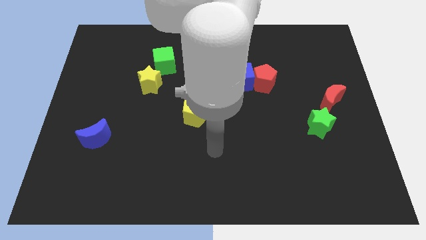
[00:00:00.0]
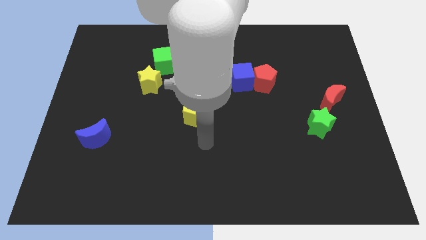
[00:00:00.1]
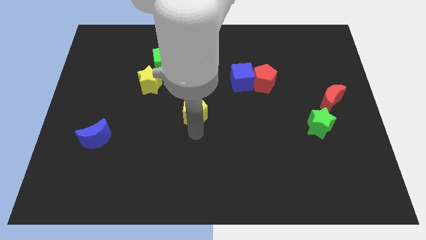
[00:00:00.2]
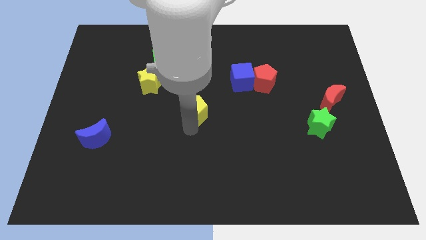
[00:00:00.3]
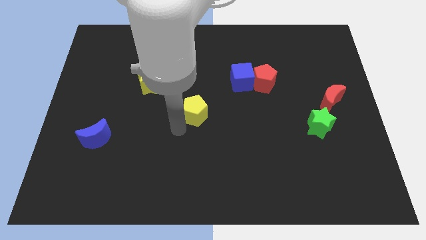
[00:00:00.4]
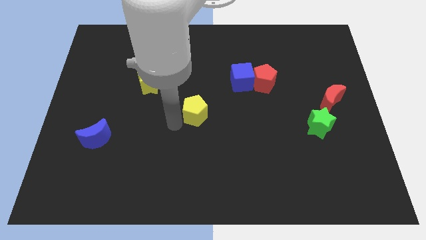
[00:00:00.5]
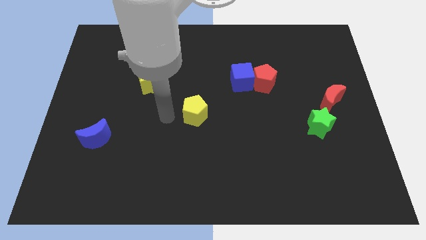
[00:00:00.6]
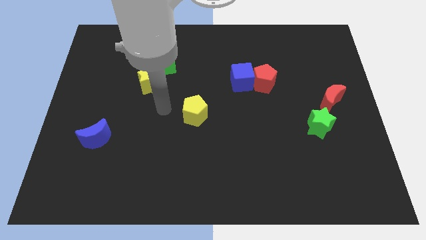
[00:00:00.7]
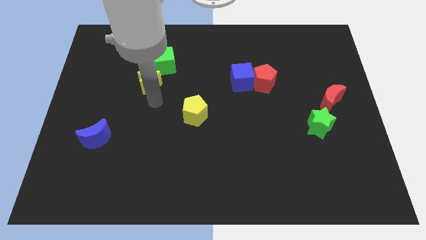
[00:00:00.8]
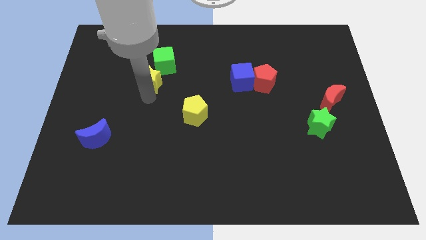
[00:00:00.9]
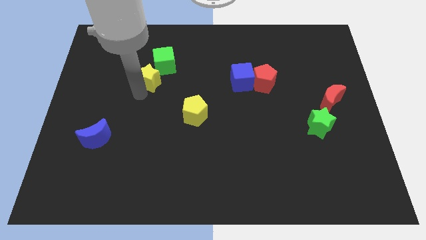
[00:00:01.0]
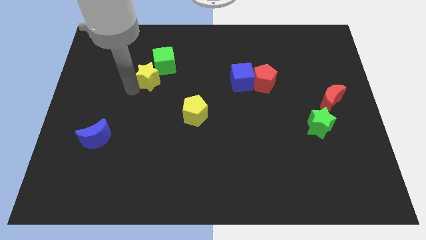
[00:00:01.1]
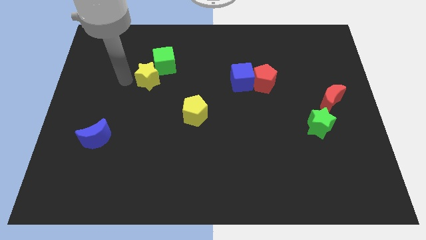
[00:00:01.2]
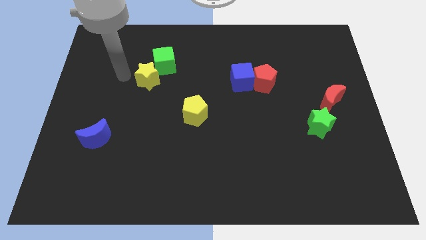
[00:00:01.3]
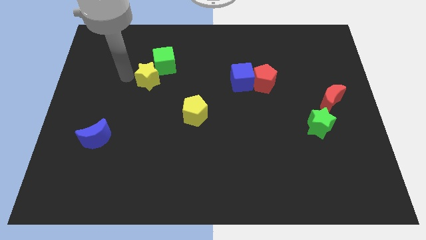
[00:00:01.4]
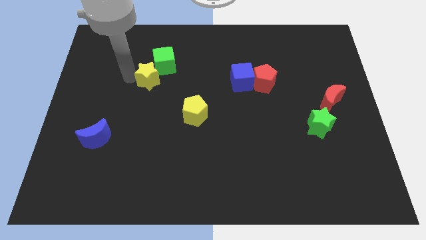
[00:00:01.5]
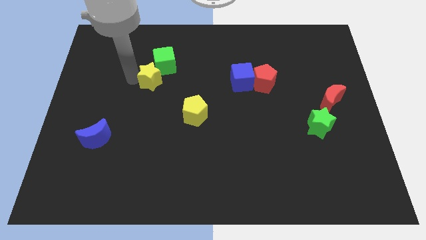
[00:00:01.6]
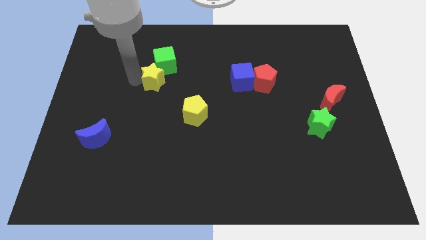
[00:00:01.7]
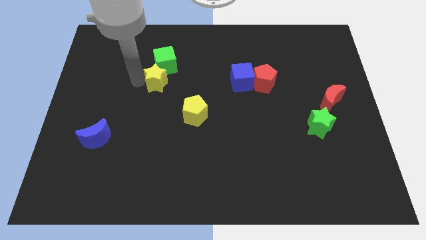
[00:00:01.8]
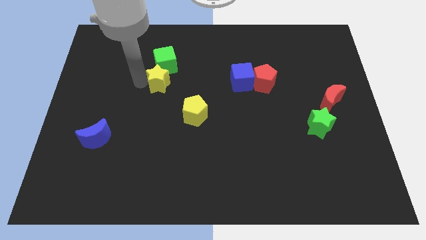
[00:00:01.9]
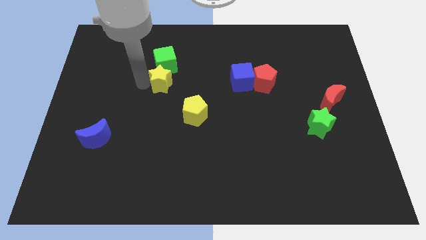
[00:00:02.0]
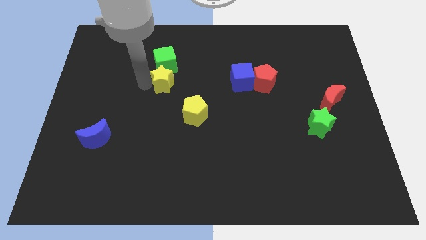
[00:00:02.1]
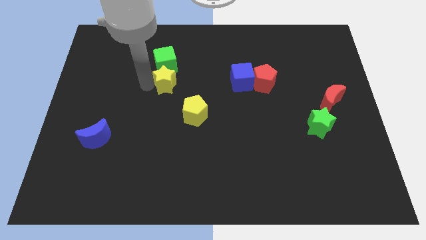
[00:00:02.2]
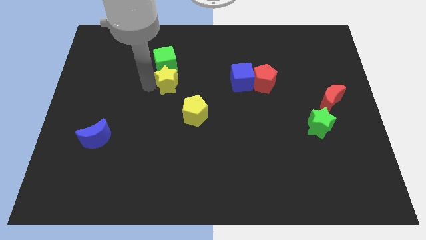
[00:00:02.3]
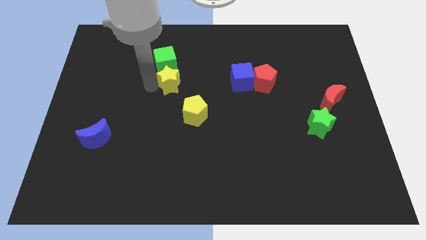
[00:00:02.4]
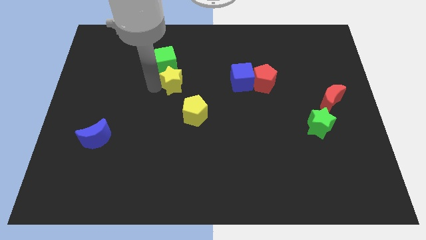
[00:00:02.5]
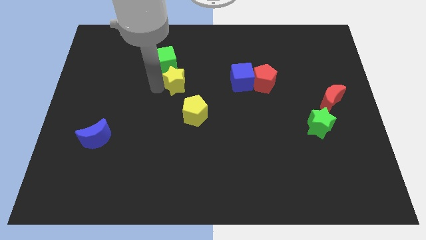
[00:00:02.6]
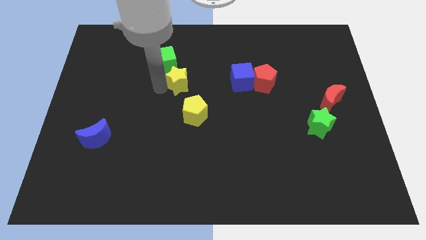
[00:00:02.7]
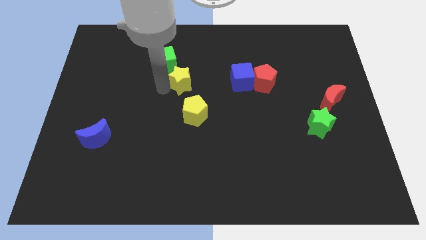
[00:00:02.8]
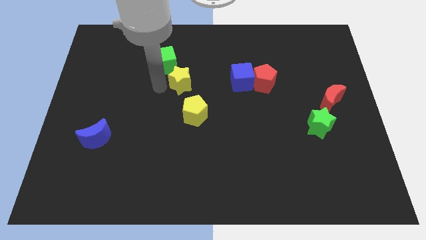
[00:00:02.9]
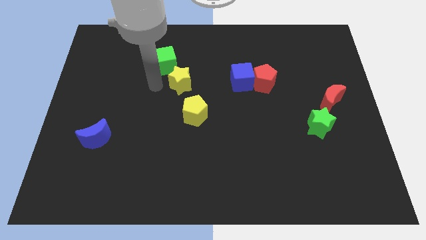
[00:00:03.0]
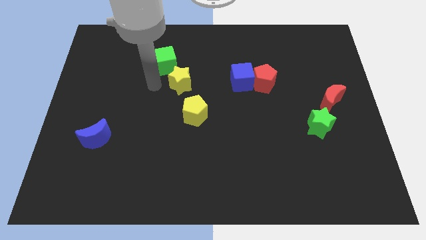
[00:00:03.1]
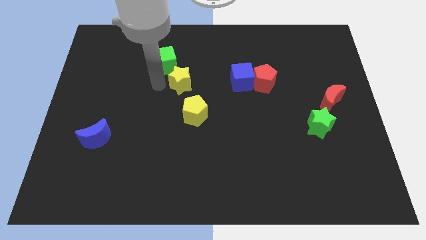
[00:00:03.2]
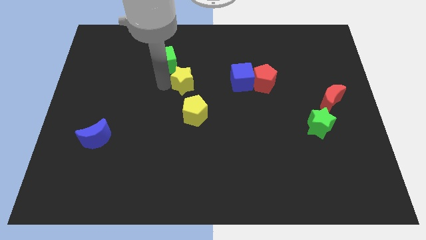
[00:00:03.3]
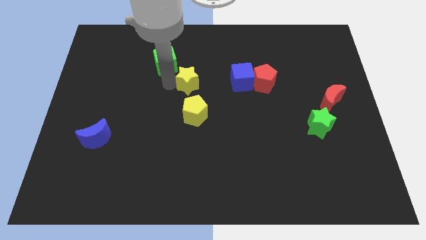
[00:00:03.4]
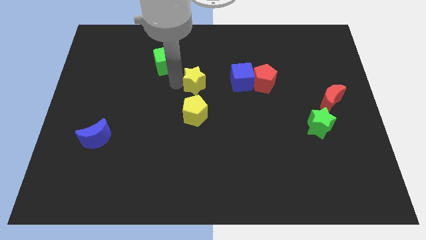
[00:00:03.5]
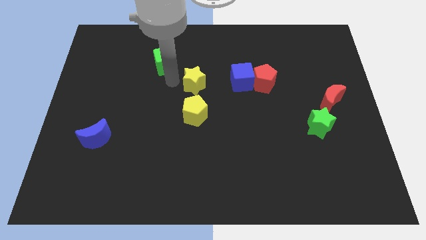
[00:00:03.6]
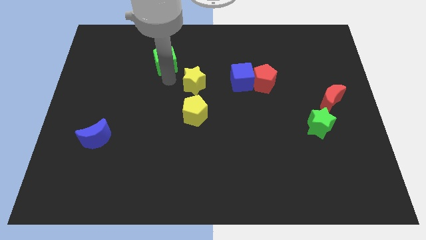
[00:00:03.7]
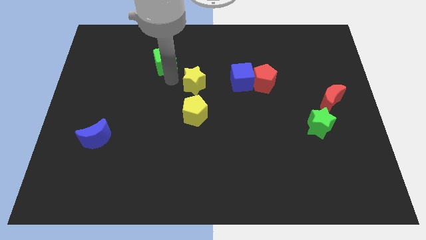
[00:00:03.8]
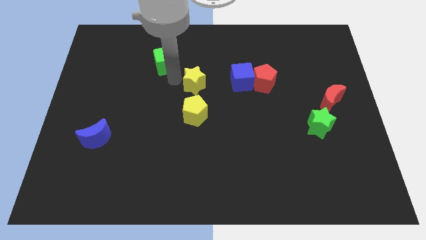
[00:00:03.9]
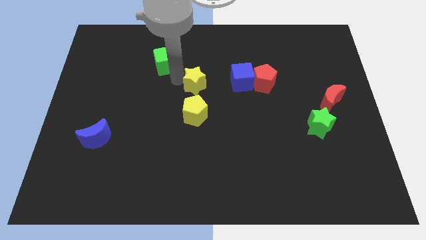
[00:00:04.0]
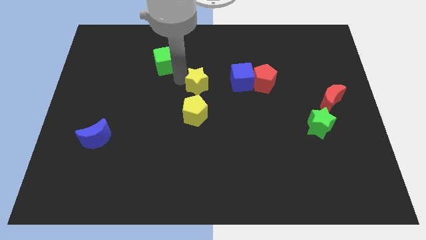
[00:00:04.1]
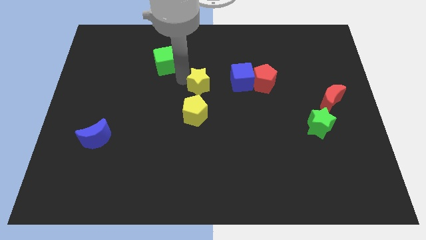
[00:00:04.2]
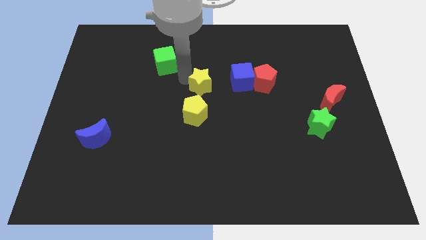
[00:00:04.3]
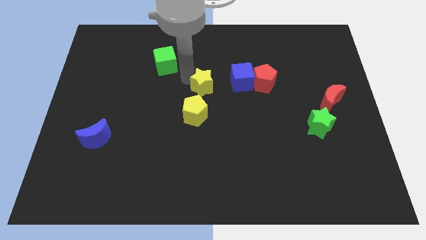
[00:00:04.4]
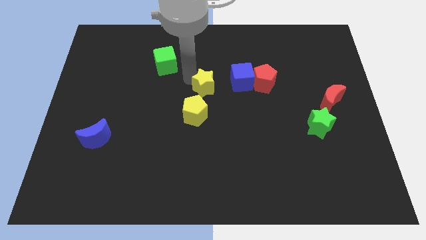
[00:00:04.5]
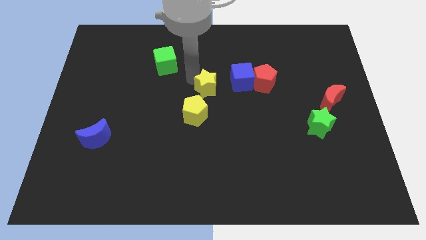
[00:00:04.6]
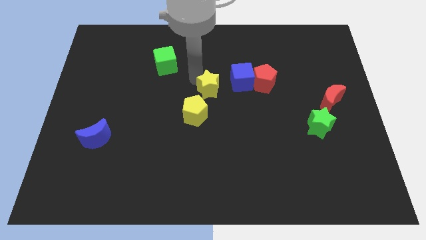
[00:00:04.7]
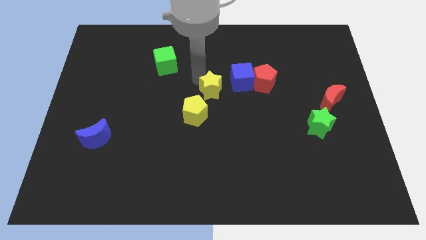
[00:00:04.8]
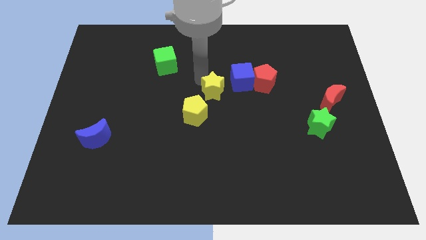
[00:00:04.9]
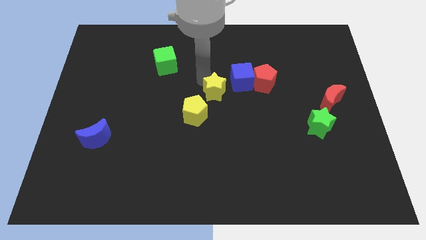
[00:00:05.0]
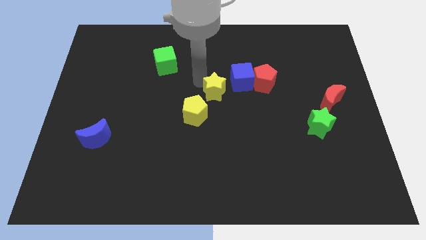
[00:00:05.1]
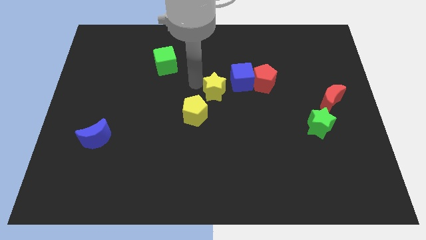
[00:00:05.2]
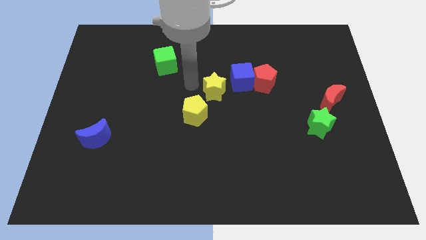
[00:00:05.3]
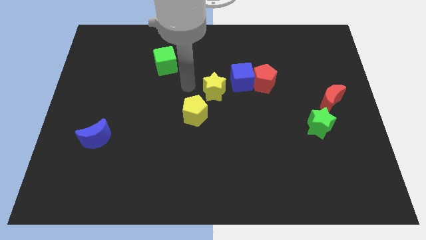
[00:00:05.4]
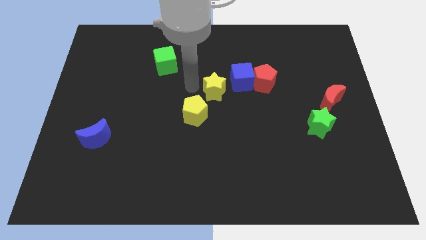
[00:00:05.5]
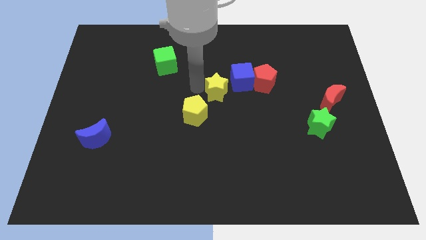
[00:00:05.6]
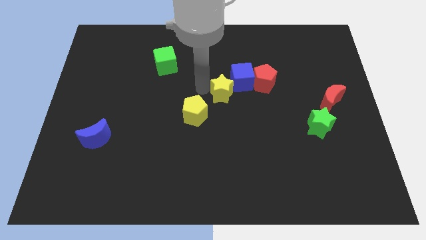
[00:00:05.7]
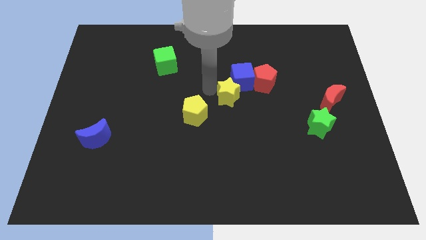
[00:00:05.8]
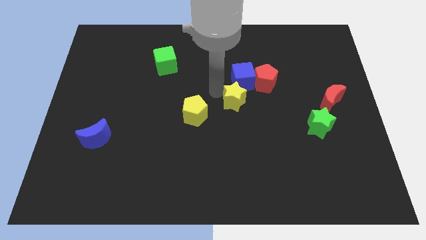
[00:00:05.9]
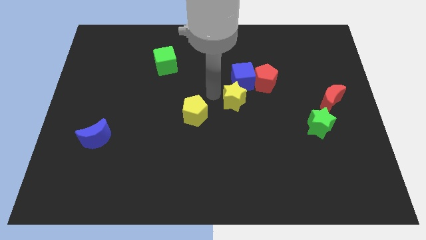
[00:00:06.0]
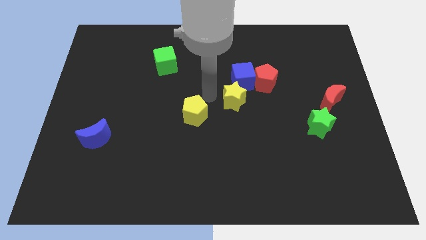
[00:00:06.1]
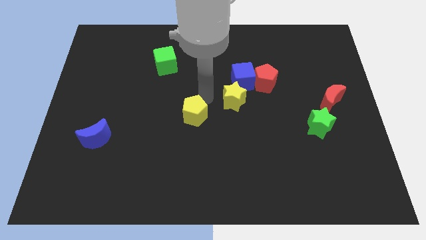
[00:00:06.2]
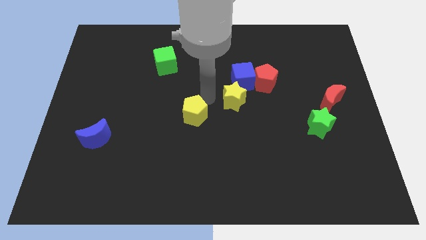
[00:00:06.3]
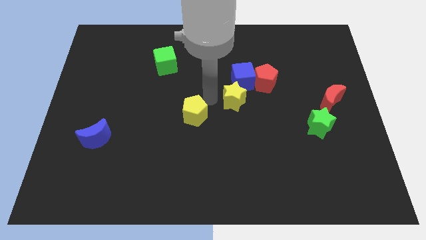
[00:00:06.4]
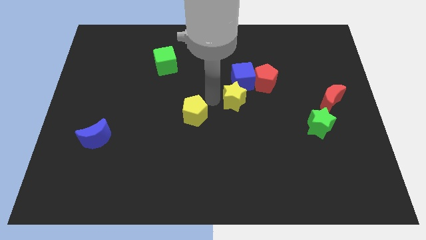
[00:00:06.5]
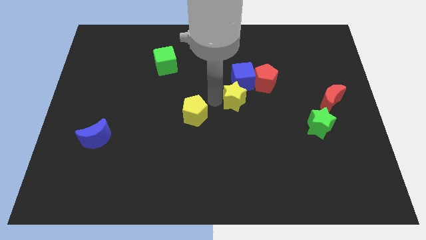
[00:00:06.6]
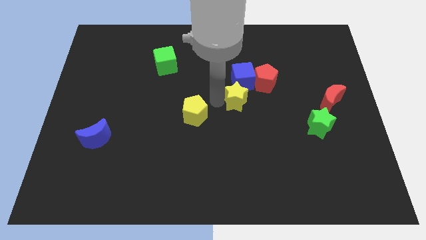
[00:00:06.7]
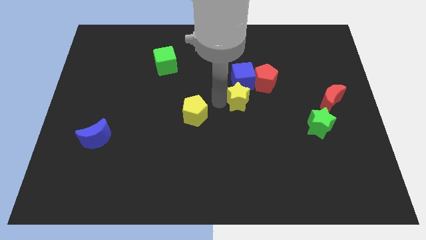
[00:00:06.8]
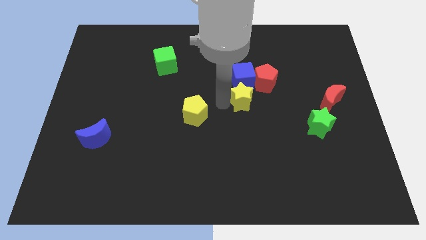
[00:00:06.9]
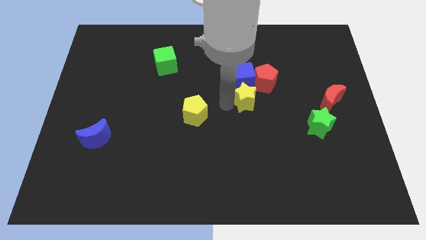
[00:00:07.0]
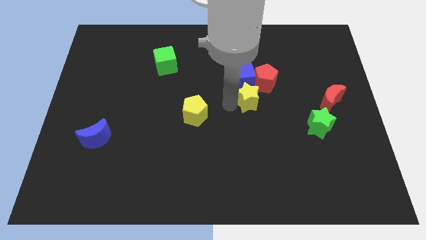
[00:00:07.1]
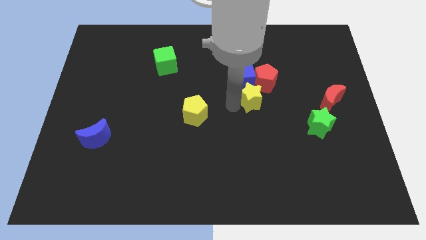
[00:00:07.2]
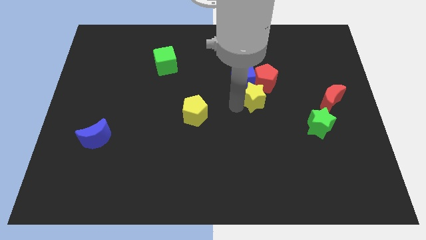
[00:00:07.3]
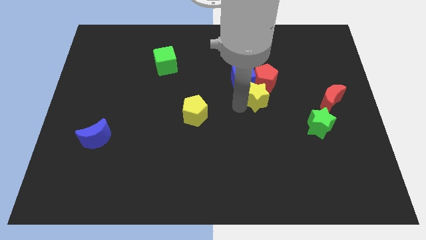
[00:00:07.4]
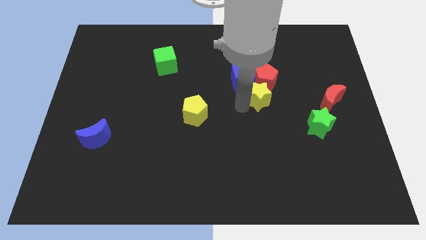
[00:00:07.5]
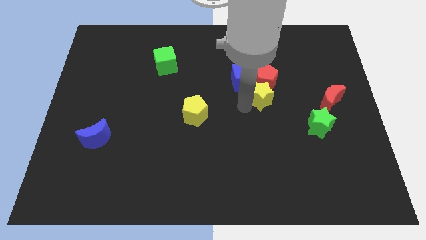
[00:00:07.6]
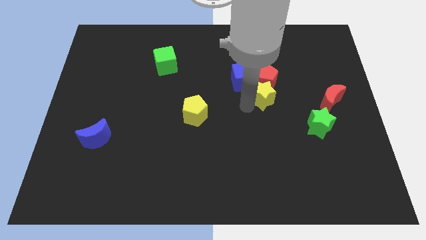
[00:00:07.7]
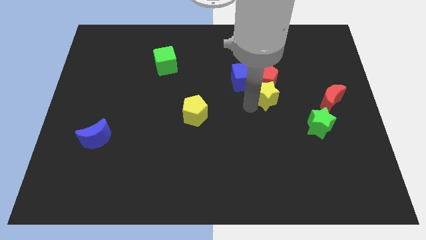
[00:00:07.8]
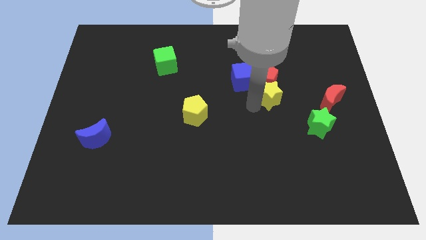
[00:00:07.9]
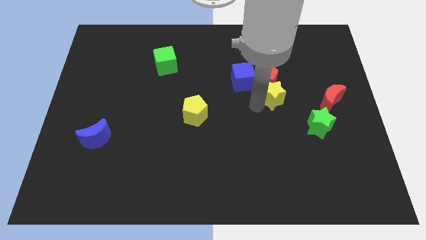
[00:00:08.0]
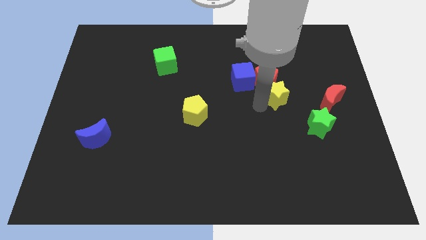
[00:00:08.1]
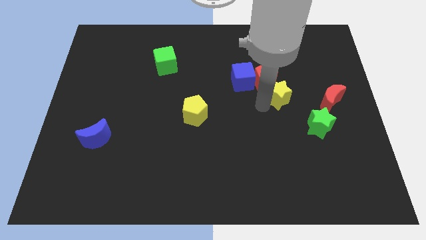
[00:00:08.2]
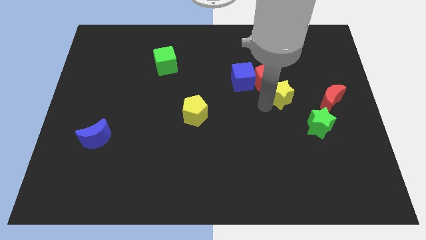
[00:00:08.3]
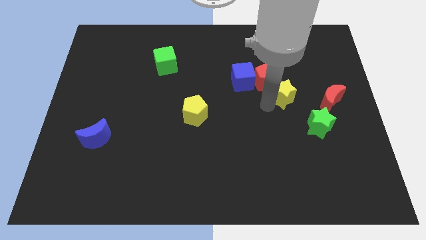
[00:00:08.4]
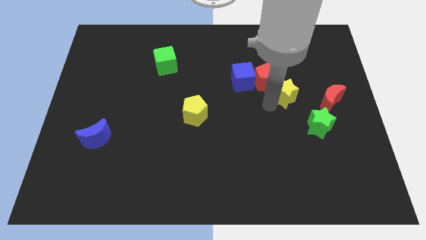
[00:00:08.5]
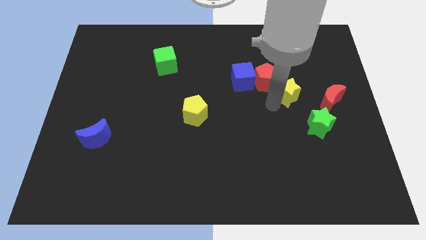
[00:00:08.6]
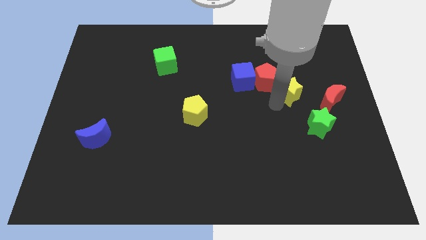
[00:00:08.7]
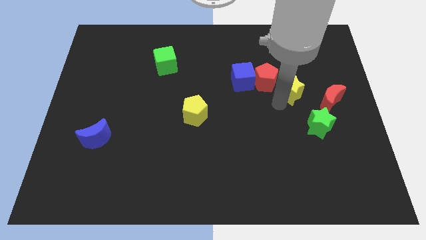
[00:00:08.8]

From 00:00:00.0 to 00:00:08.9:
put the yellow star to the top left of the red moon
